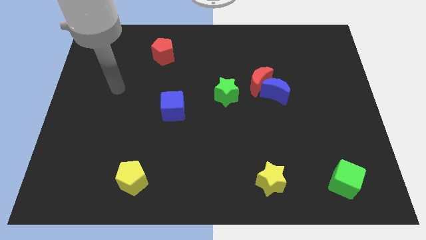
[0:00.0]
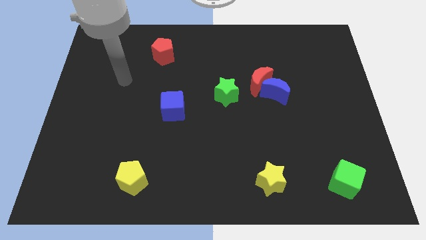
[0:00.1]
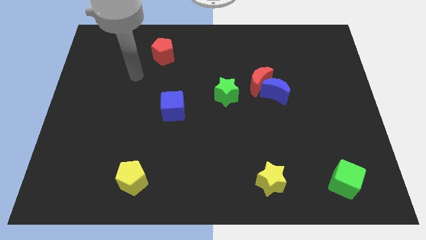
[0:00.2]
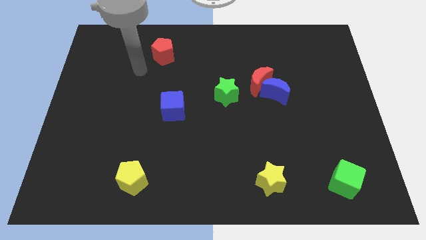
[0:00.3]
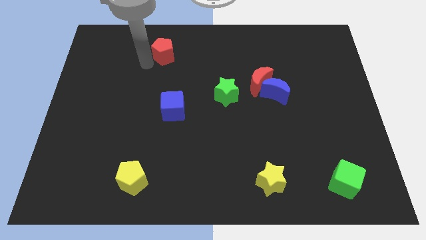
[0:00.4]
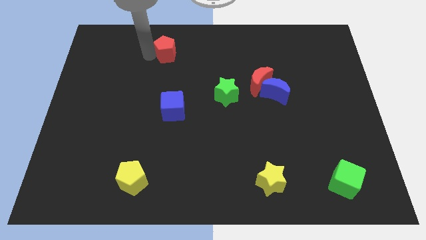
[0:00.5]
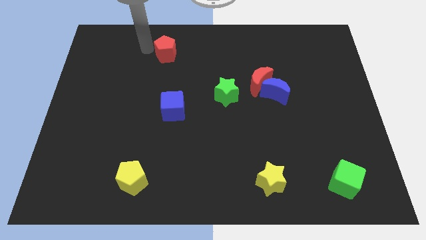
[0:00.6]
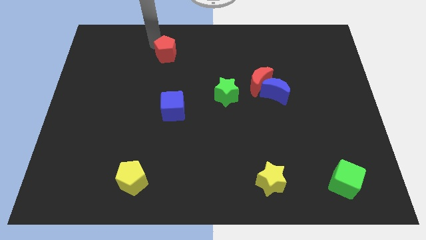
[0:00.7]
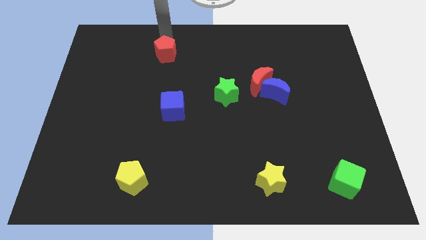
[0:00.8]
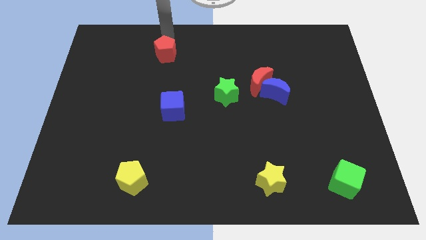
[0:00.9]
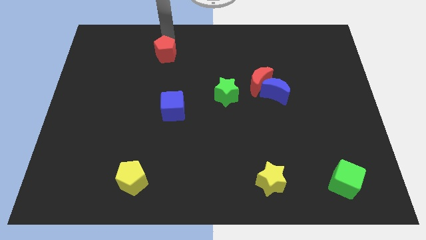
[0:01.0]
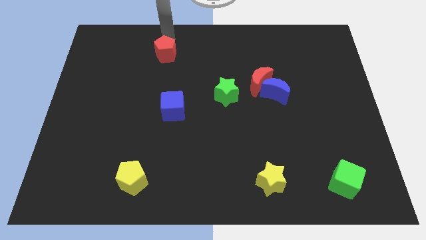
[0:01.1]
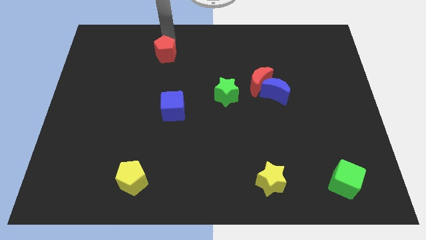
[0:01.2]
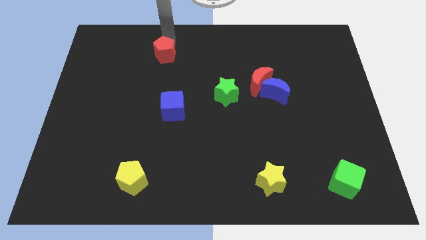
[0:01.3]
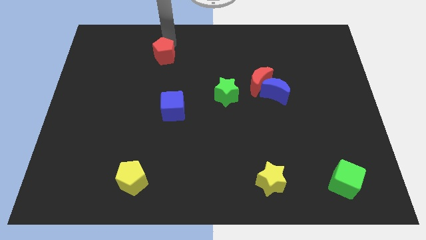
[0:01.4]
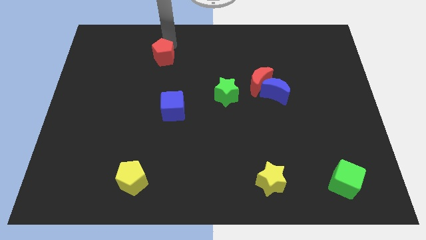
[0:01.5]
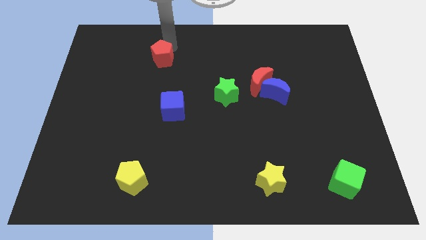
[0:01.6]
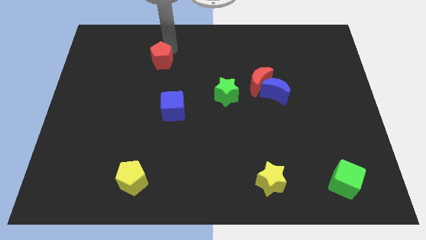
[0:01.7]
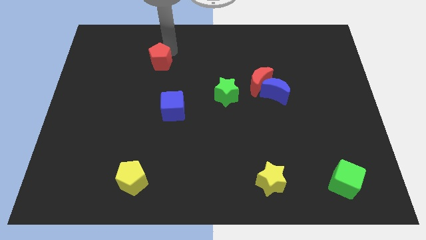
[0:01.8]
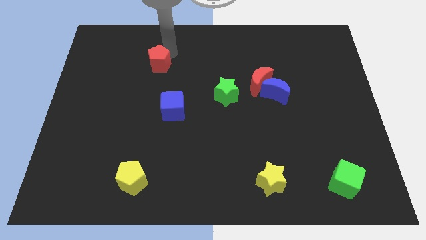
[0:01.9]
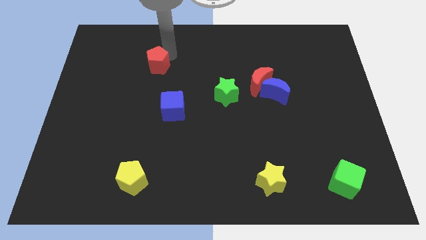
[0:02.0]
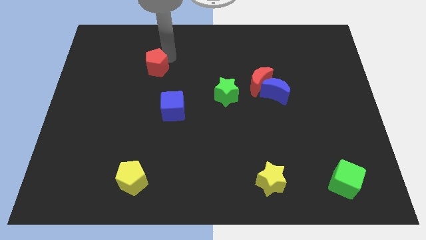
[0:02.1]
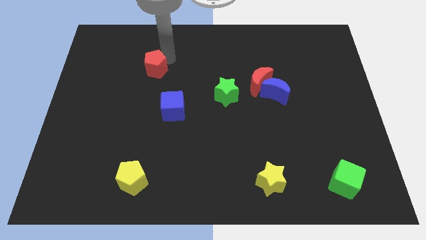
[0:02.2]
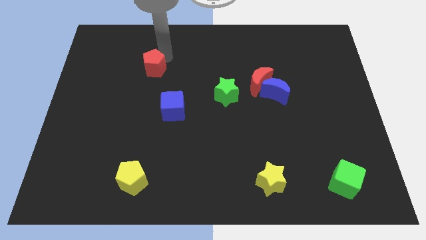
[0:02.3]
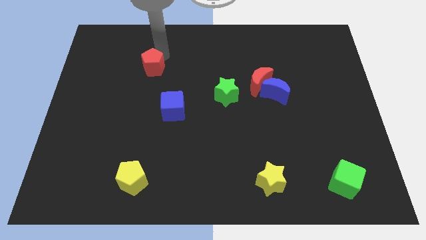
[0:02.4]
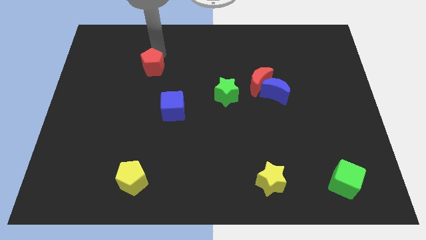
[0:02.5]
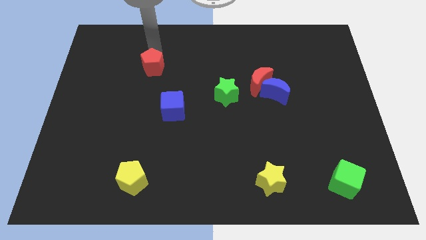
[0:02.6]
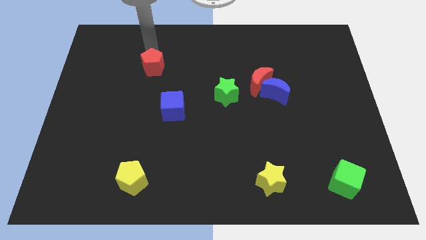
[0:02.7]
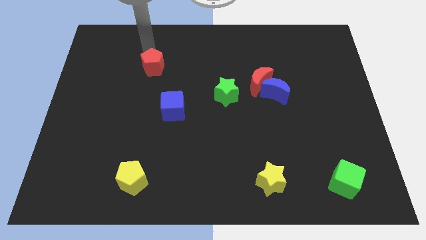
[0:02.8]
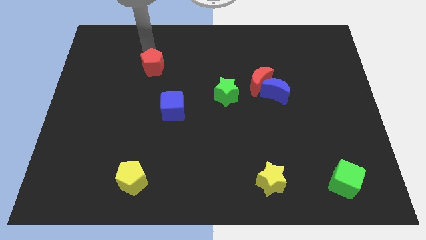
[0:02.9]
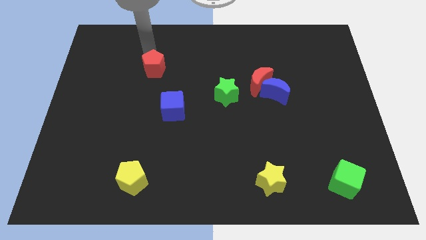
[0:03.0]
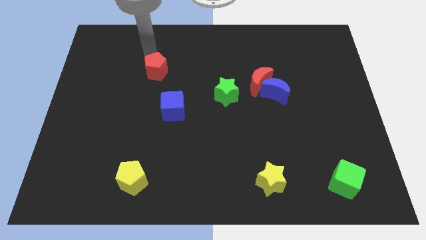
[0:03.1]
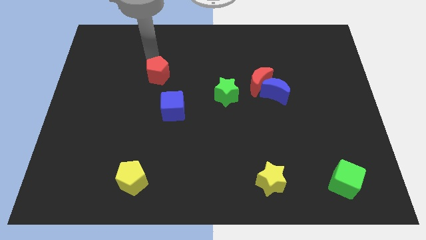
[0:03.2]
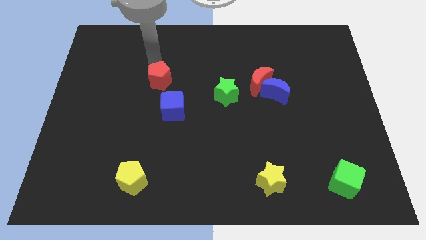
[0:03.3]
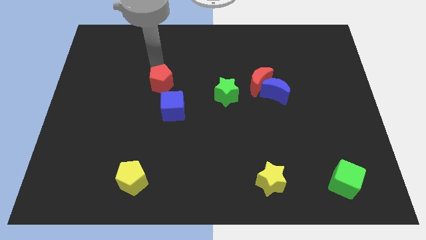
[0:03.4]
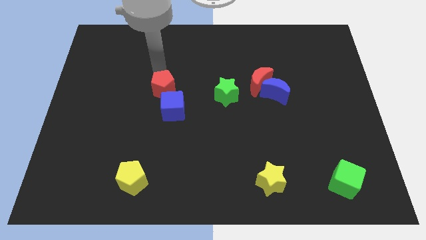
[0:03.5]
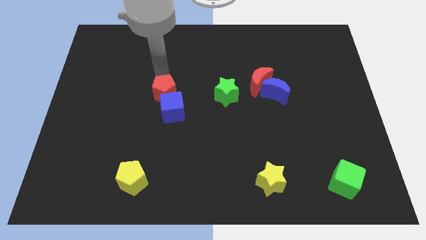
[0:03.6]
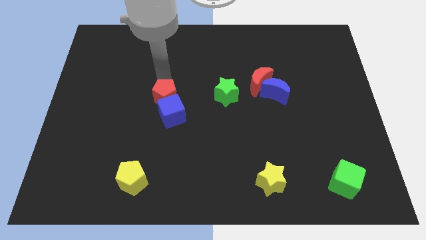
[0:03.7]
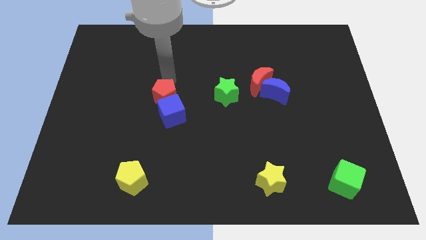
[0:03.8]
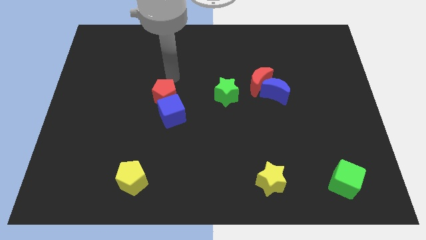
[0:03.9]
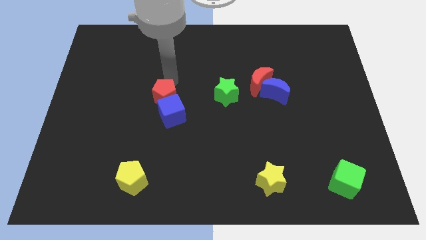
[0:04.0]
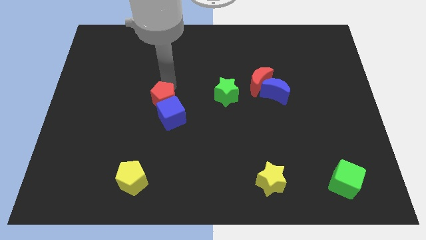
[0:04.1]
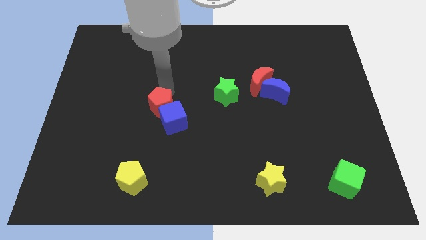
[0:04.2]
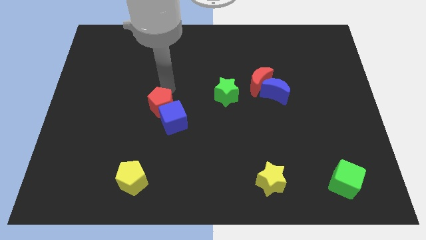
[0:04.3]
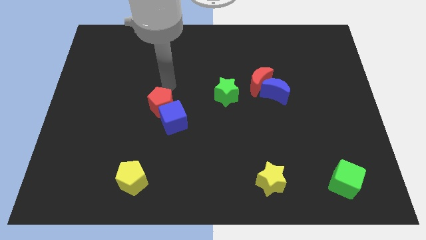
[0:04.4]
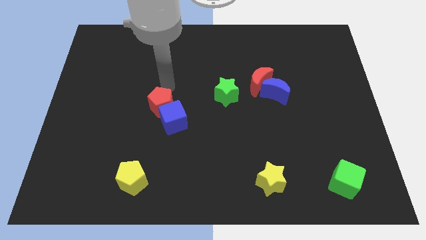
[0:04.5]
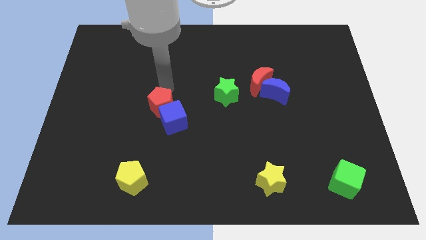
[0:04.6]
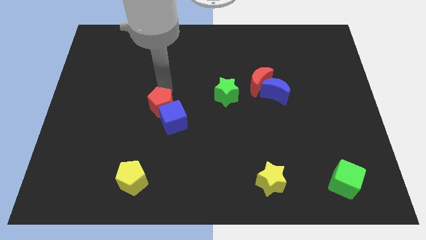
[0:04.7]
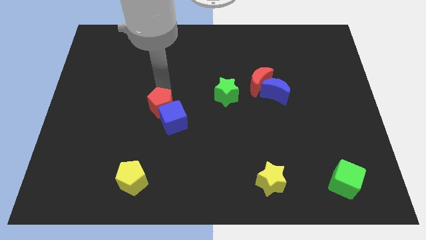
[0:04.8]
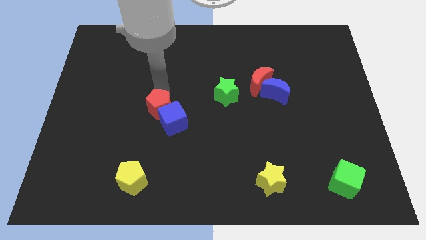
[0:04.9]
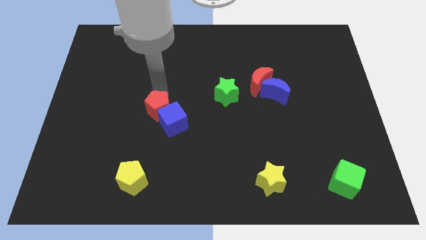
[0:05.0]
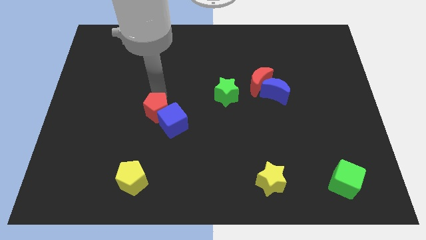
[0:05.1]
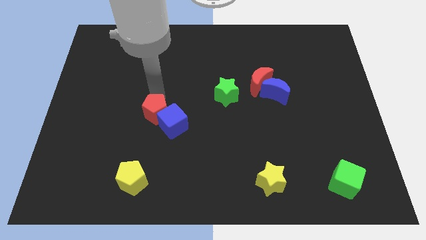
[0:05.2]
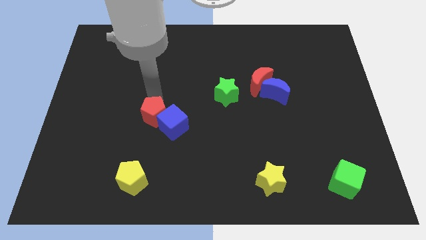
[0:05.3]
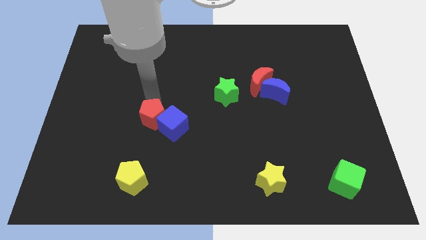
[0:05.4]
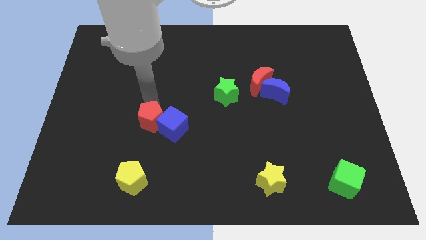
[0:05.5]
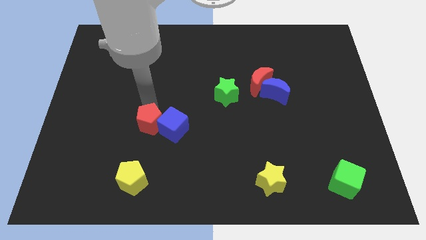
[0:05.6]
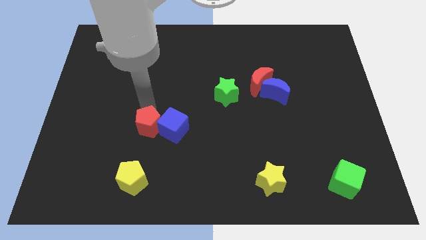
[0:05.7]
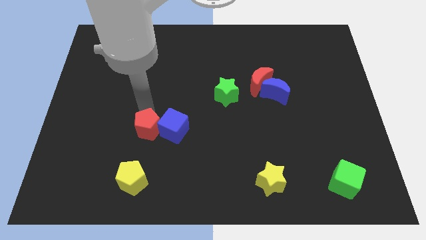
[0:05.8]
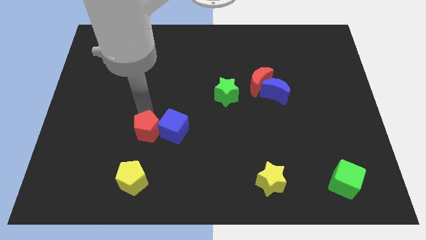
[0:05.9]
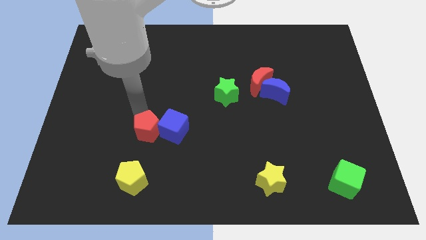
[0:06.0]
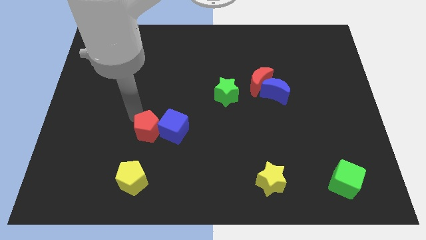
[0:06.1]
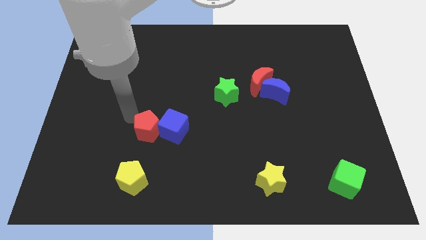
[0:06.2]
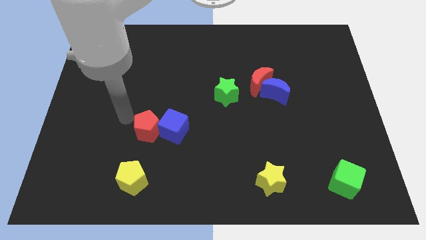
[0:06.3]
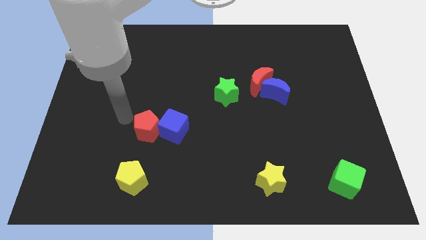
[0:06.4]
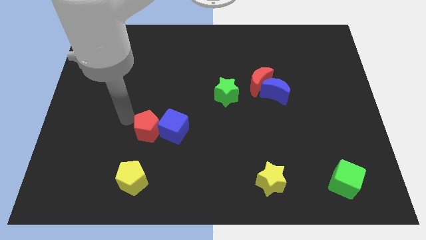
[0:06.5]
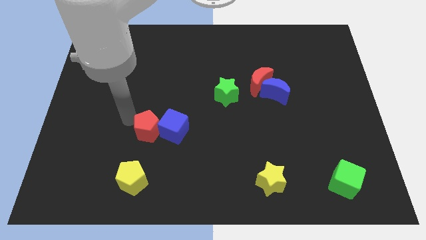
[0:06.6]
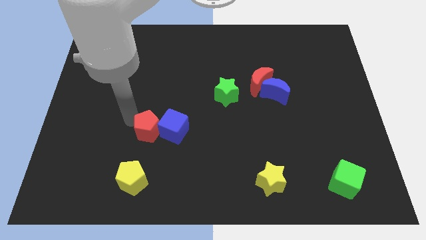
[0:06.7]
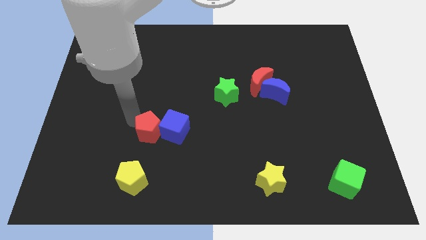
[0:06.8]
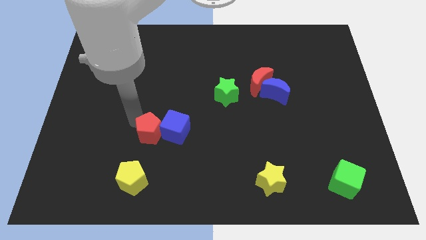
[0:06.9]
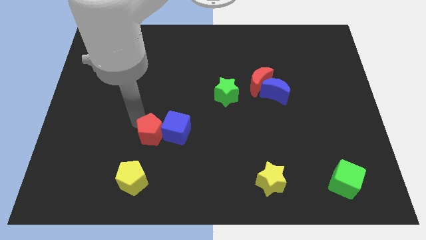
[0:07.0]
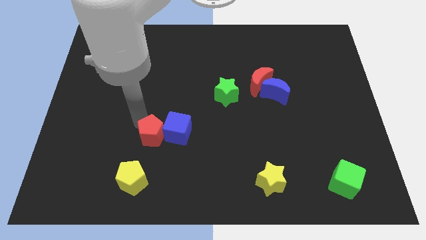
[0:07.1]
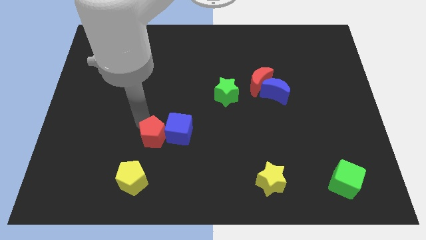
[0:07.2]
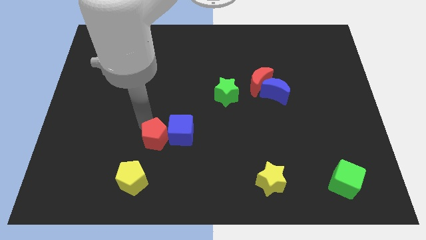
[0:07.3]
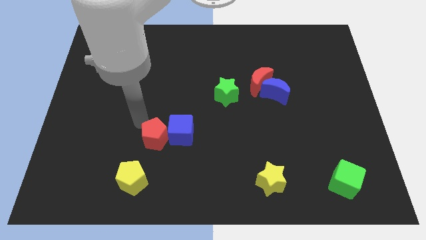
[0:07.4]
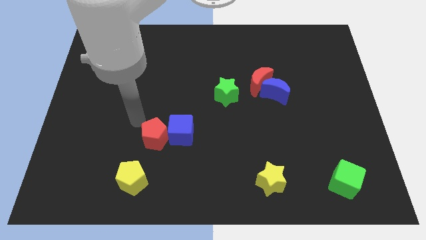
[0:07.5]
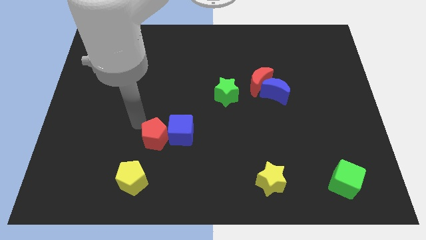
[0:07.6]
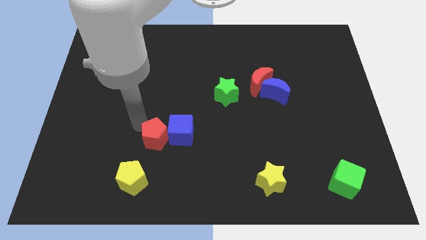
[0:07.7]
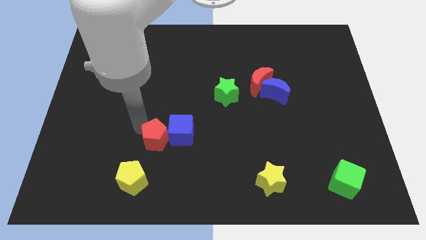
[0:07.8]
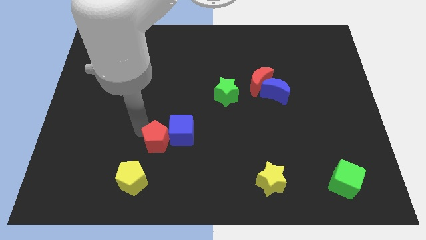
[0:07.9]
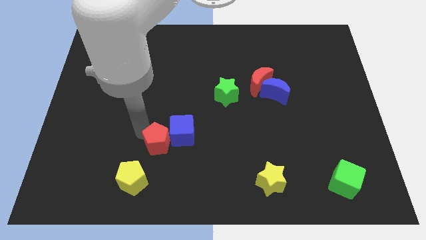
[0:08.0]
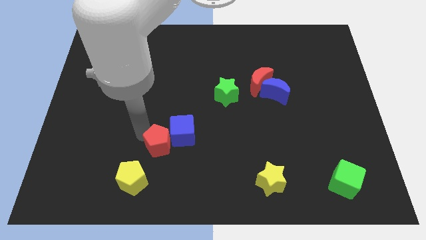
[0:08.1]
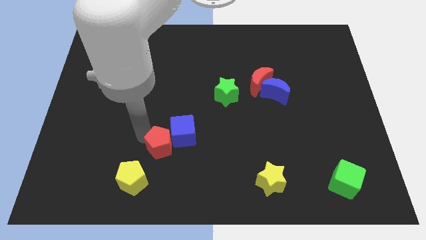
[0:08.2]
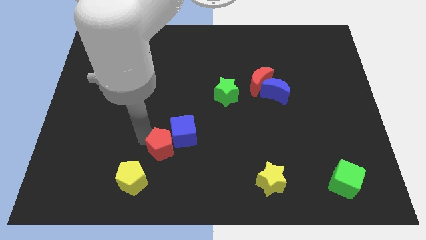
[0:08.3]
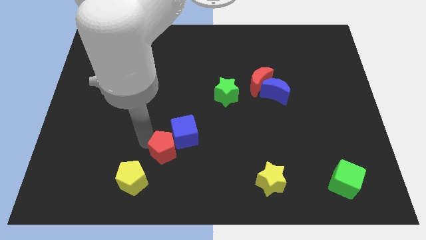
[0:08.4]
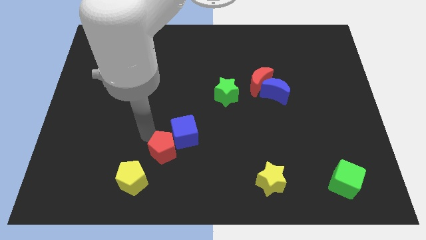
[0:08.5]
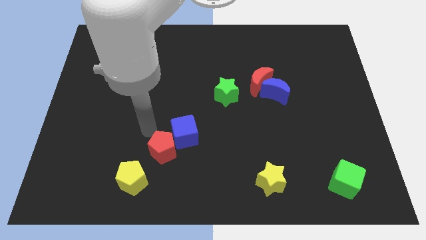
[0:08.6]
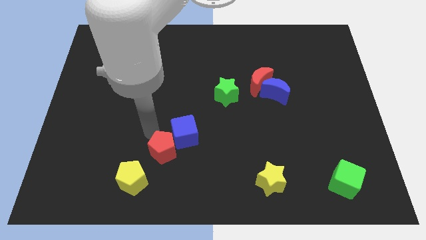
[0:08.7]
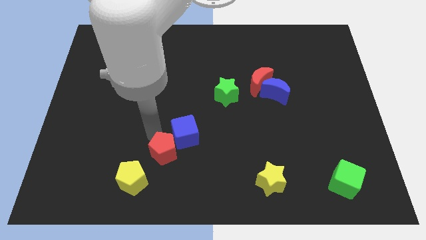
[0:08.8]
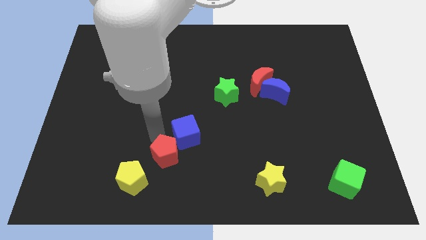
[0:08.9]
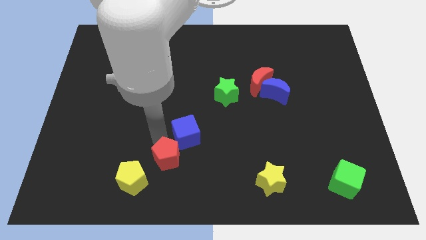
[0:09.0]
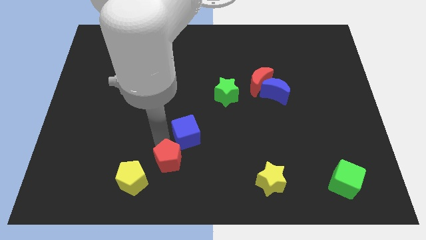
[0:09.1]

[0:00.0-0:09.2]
put the red pentagon right of the yellow pentagon
